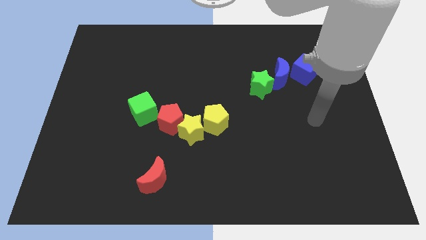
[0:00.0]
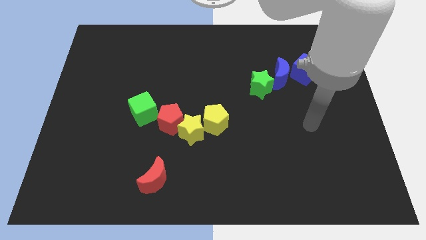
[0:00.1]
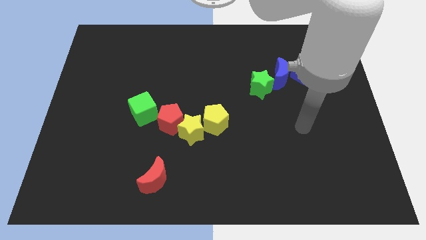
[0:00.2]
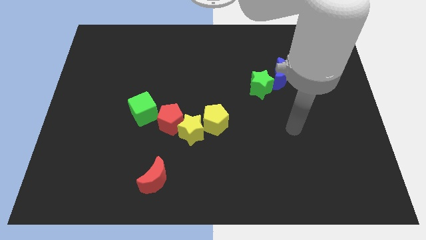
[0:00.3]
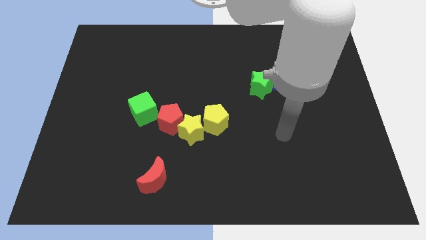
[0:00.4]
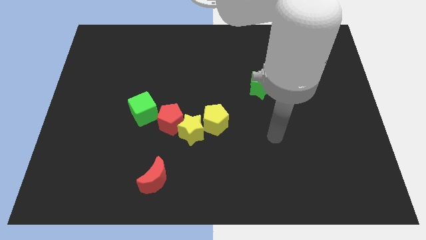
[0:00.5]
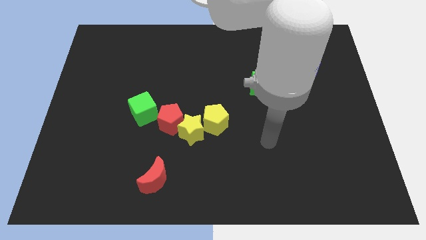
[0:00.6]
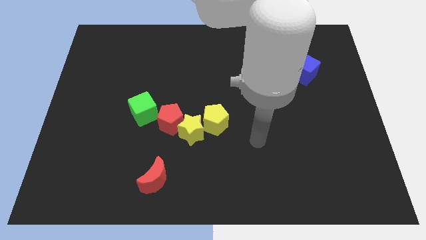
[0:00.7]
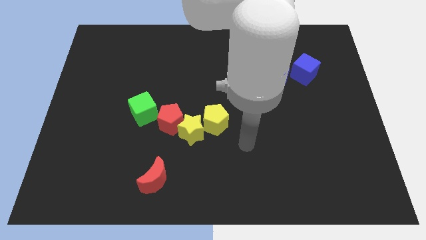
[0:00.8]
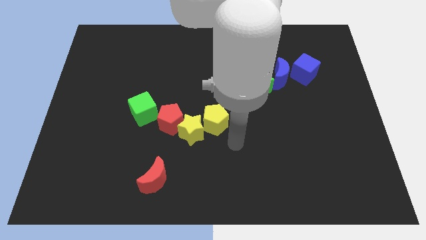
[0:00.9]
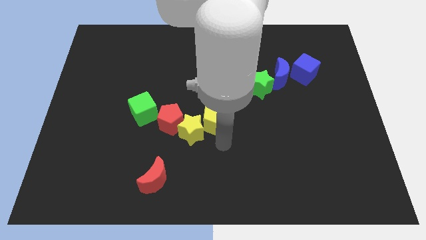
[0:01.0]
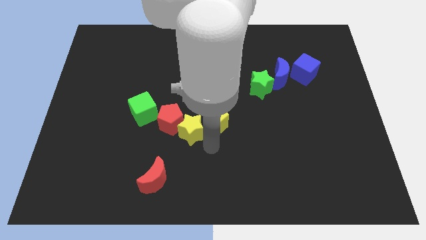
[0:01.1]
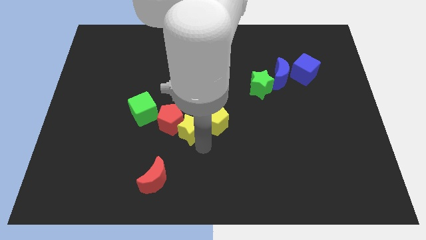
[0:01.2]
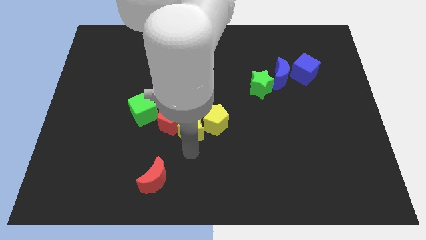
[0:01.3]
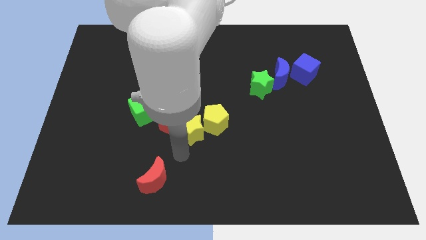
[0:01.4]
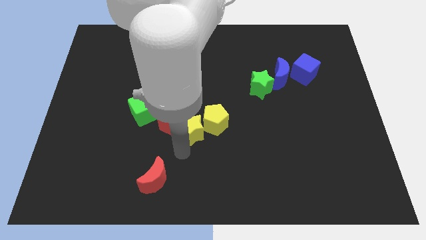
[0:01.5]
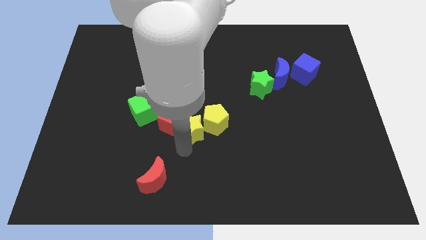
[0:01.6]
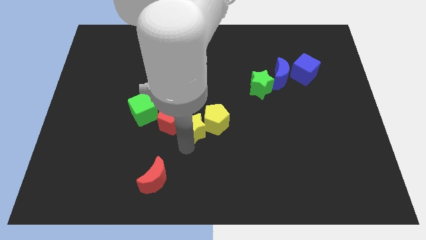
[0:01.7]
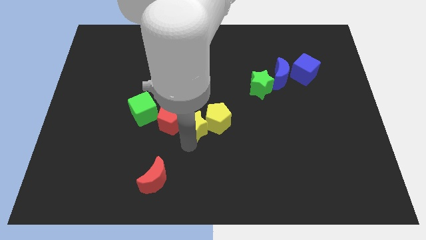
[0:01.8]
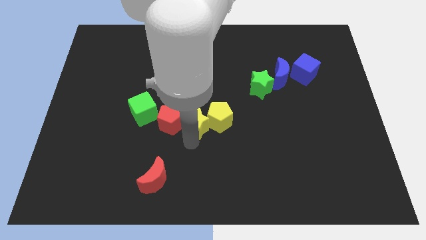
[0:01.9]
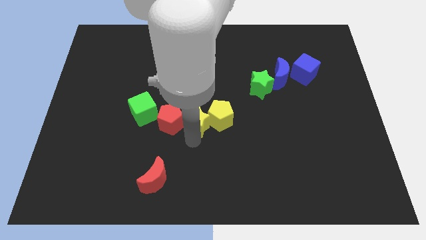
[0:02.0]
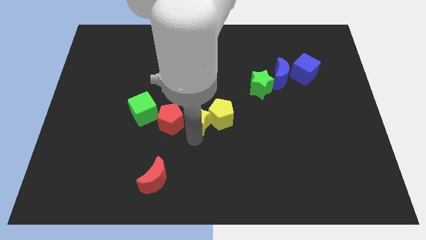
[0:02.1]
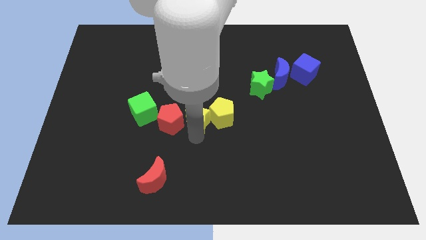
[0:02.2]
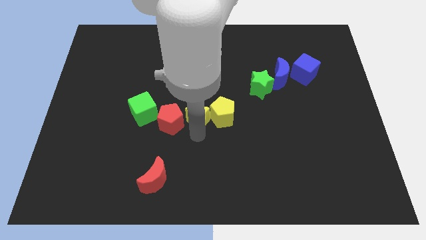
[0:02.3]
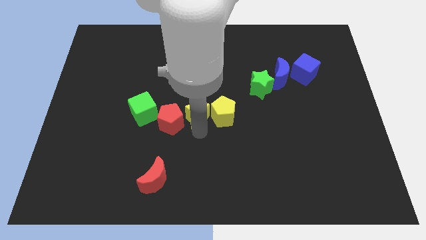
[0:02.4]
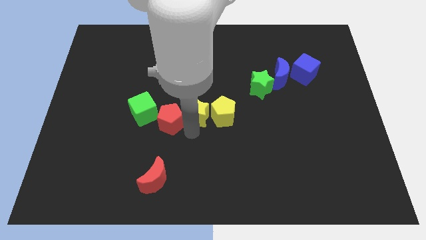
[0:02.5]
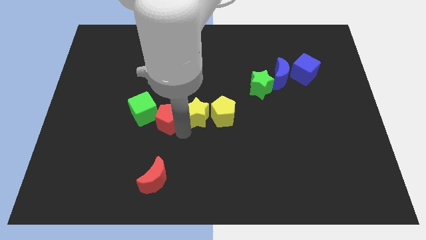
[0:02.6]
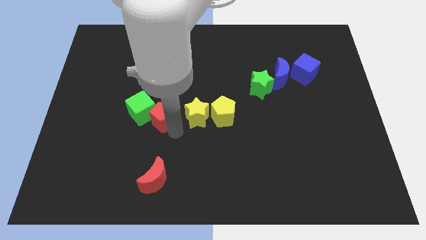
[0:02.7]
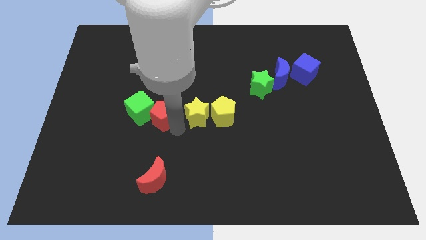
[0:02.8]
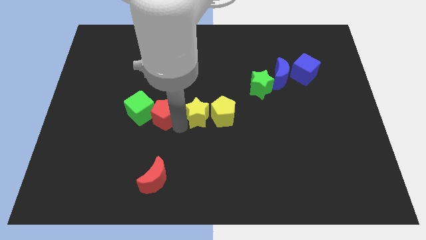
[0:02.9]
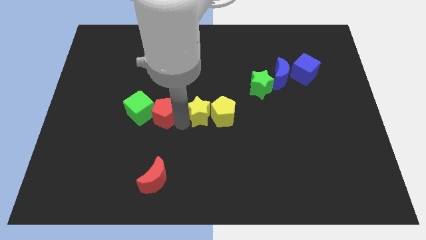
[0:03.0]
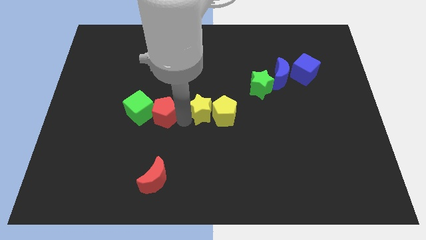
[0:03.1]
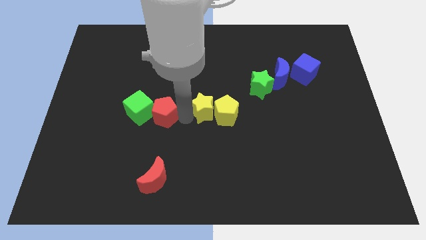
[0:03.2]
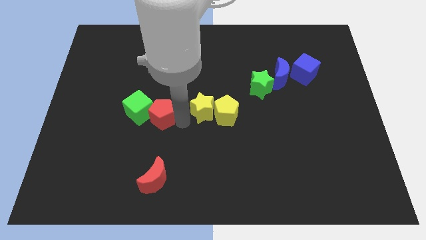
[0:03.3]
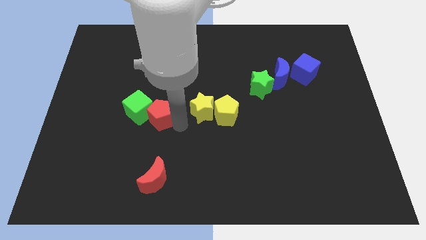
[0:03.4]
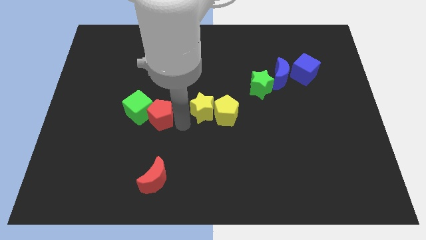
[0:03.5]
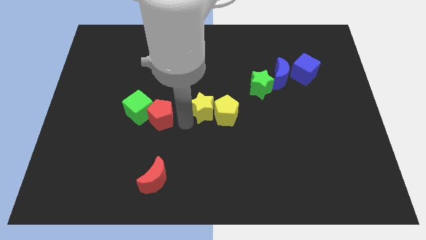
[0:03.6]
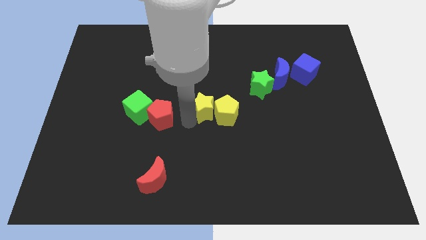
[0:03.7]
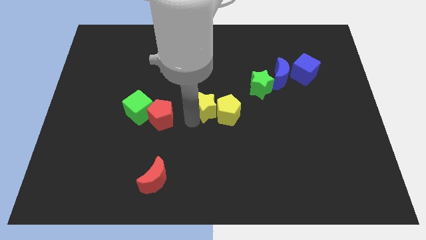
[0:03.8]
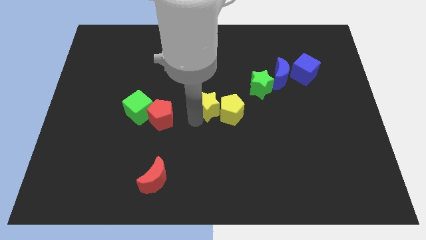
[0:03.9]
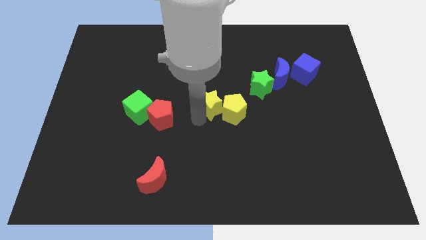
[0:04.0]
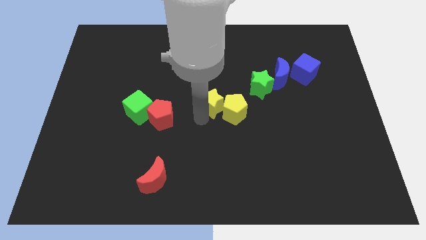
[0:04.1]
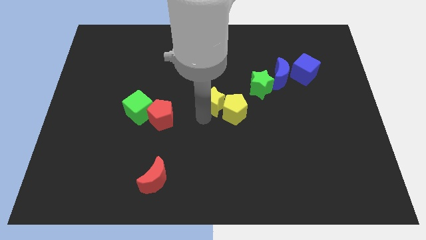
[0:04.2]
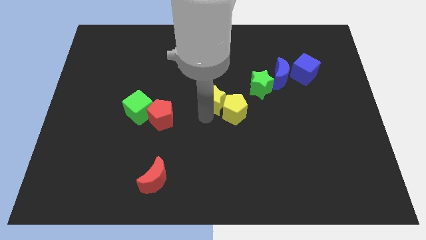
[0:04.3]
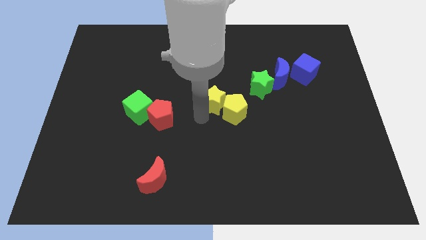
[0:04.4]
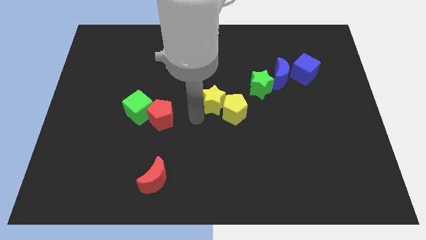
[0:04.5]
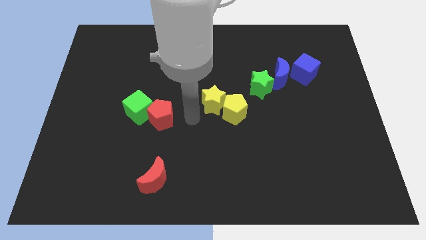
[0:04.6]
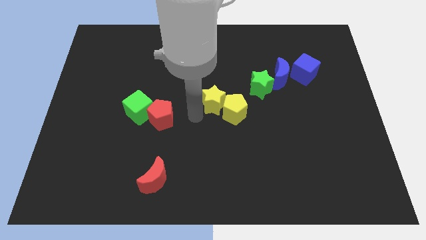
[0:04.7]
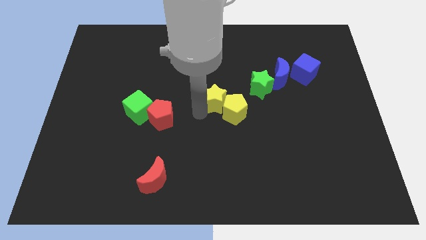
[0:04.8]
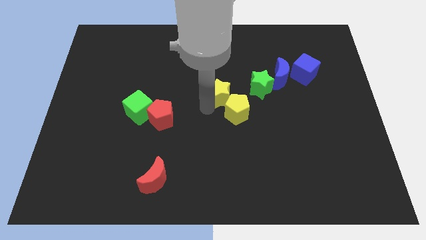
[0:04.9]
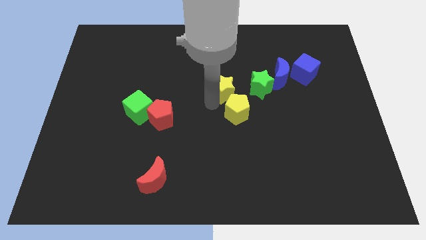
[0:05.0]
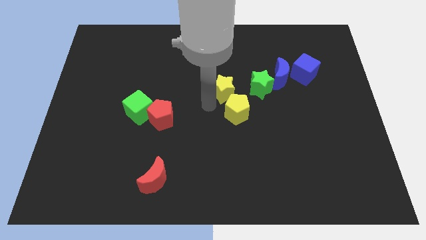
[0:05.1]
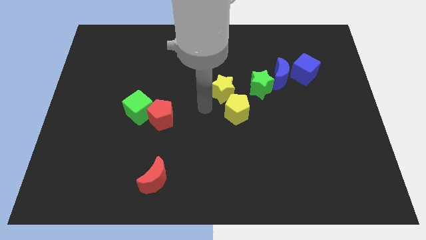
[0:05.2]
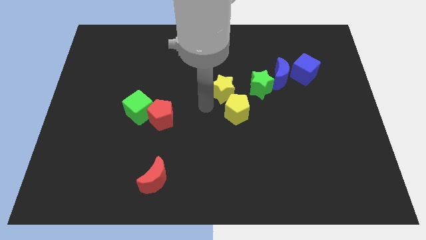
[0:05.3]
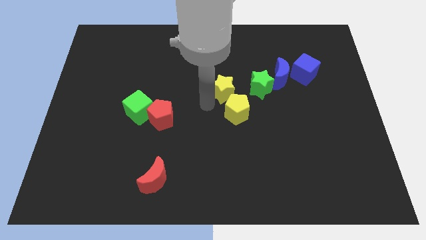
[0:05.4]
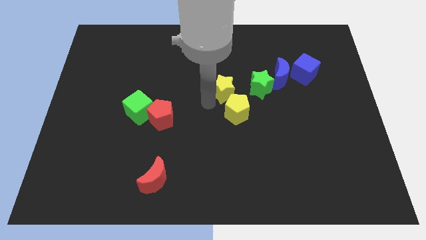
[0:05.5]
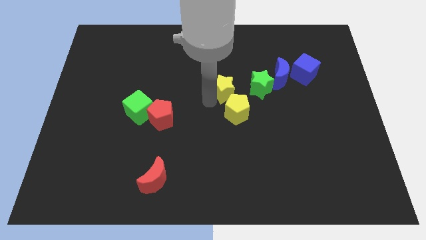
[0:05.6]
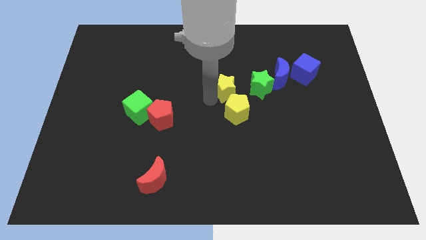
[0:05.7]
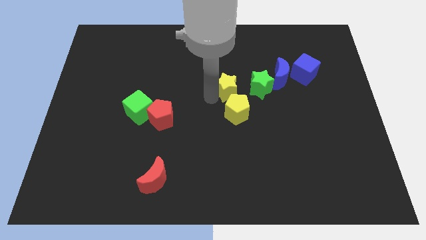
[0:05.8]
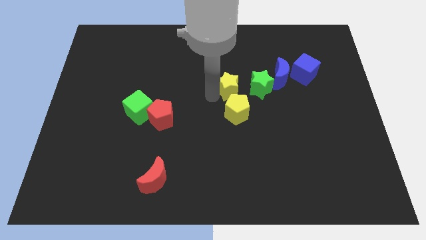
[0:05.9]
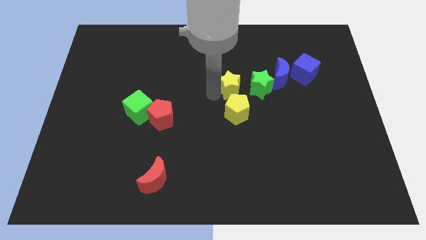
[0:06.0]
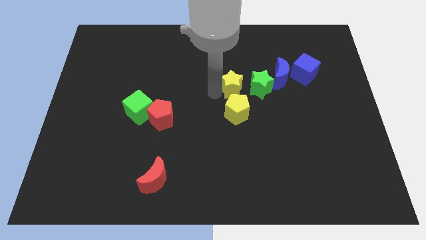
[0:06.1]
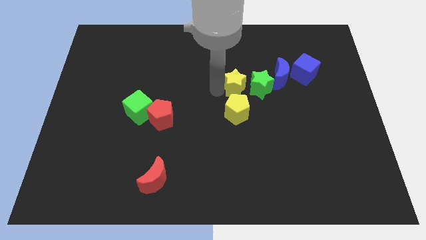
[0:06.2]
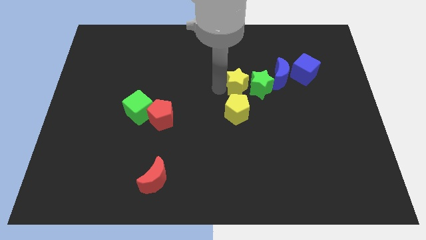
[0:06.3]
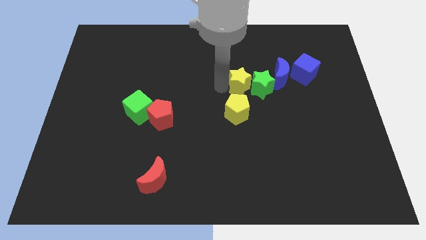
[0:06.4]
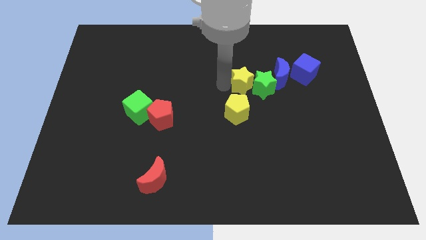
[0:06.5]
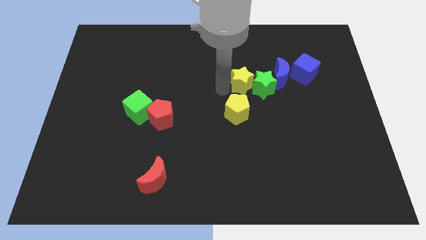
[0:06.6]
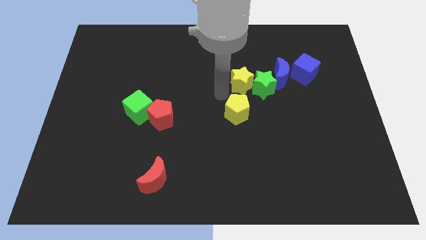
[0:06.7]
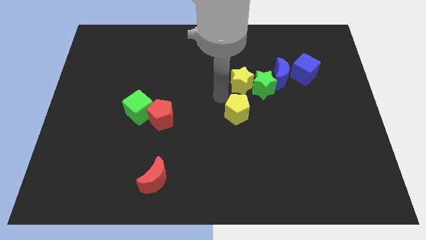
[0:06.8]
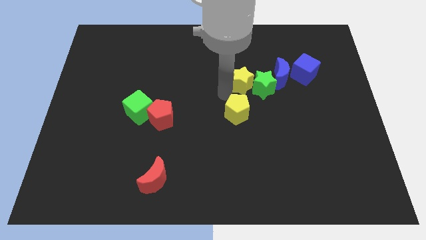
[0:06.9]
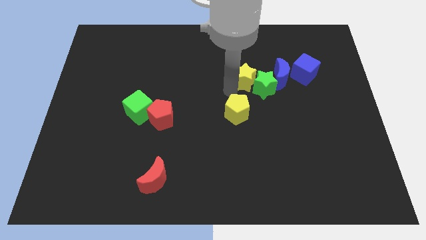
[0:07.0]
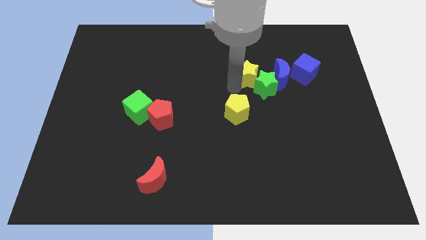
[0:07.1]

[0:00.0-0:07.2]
slide the yellow star upwards and then to the right

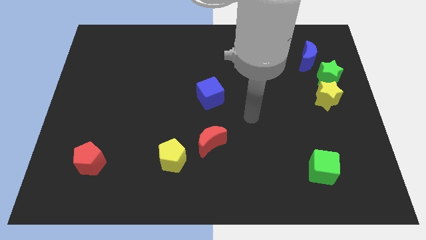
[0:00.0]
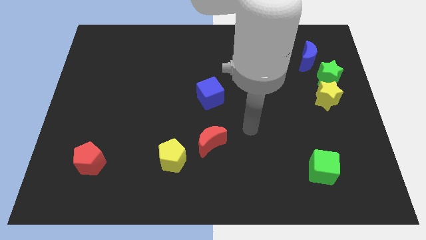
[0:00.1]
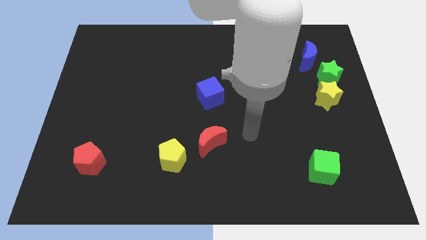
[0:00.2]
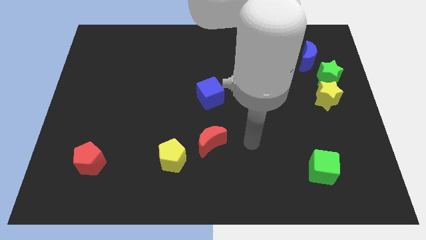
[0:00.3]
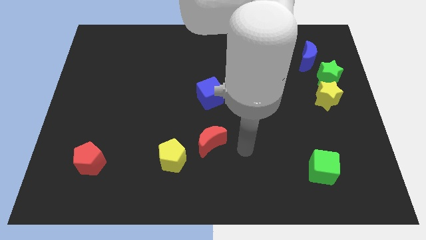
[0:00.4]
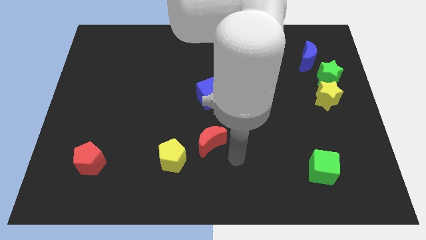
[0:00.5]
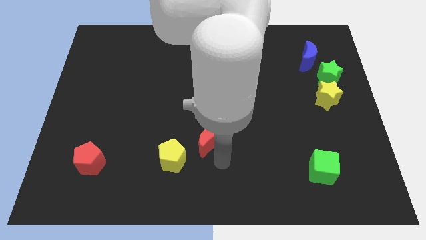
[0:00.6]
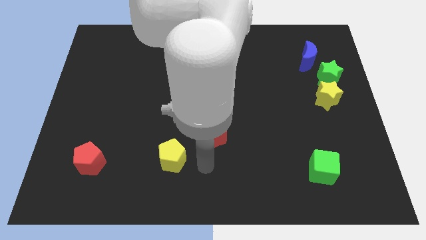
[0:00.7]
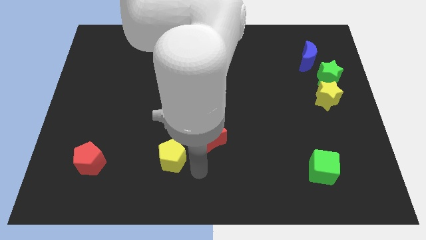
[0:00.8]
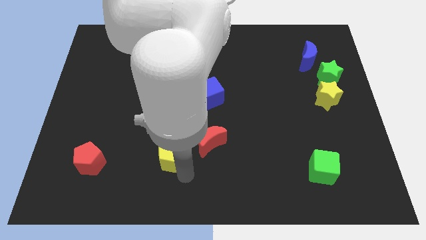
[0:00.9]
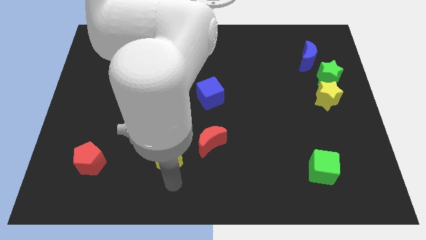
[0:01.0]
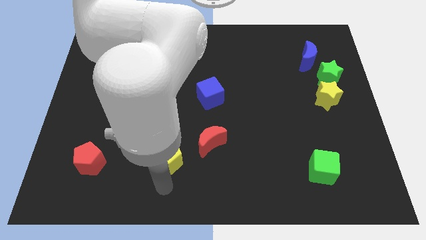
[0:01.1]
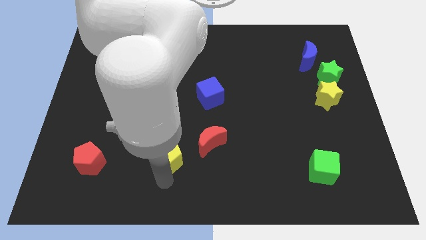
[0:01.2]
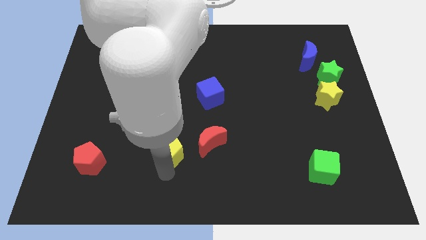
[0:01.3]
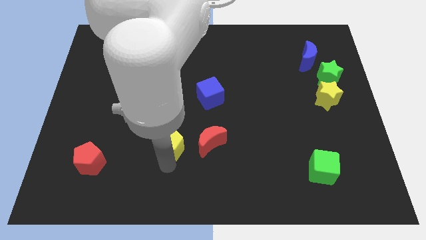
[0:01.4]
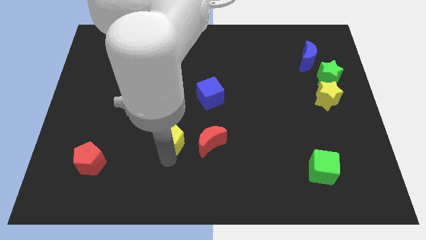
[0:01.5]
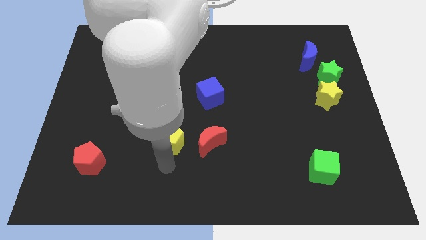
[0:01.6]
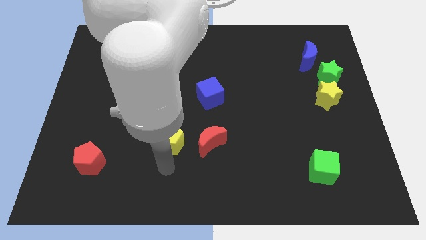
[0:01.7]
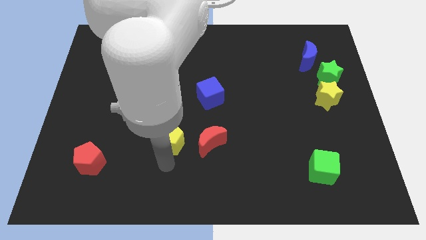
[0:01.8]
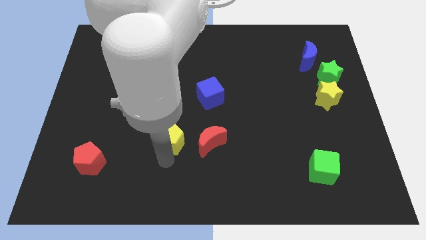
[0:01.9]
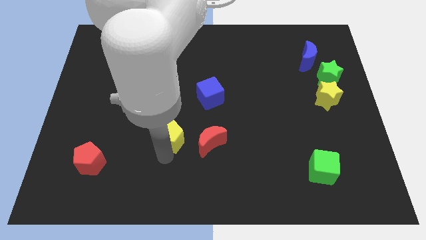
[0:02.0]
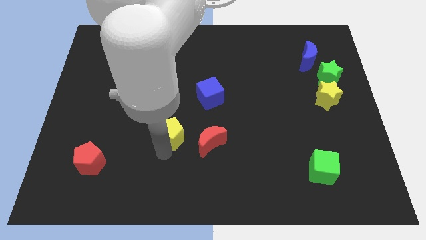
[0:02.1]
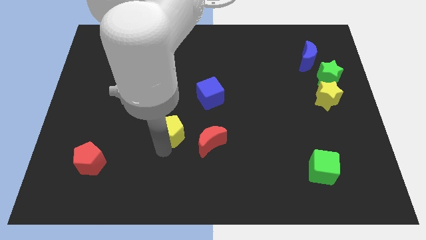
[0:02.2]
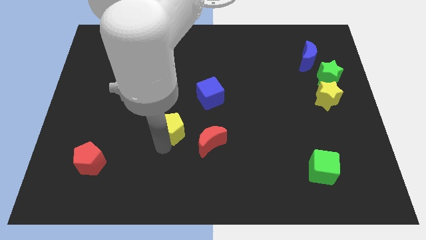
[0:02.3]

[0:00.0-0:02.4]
slide the yellow pentagon slightly upwards
